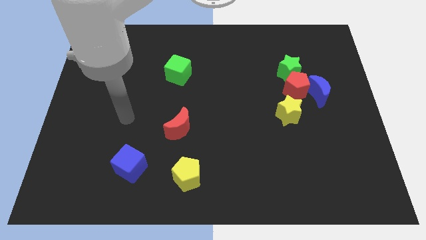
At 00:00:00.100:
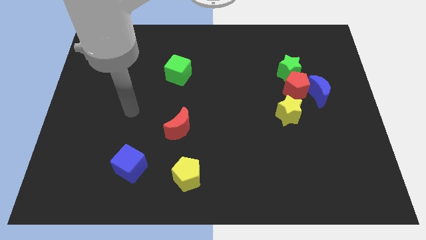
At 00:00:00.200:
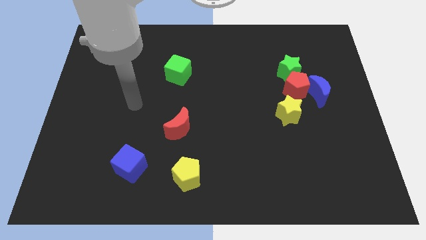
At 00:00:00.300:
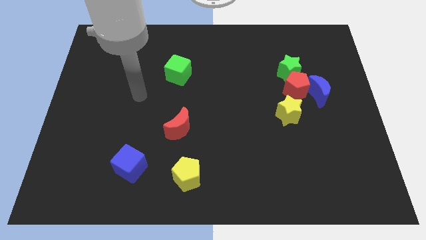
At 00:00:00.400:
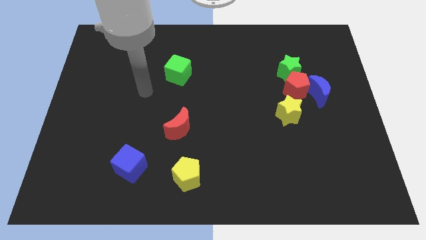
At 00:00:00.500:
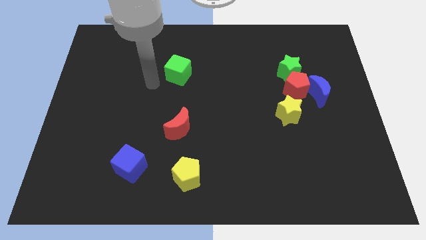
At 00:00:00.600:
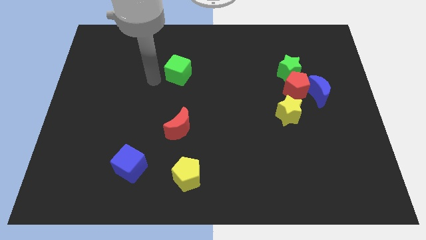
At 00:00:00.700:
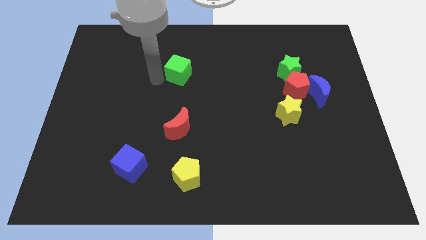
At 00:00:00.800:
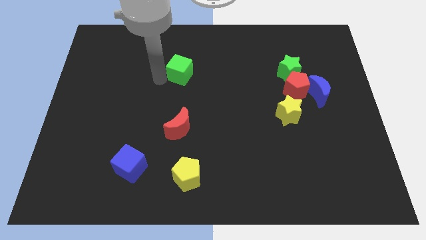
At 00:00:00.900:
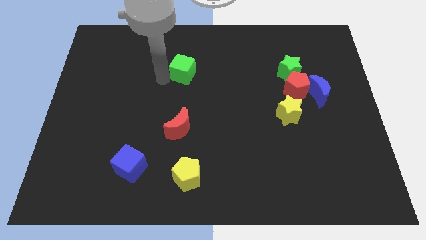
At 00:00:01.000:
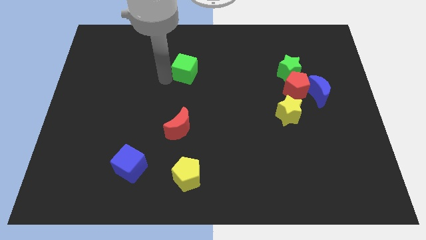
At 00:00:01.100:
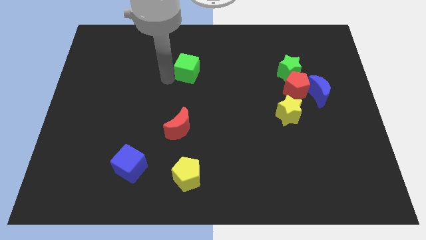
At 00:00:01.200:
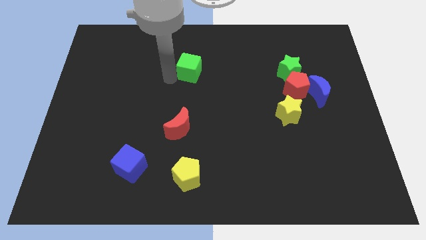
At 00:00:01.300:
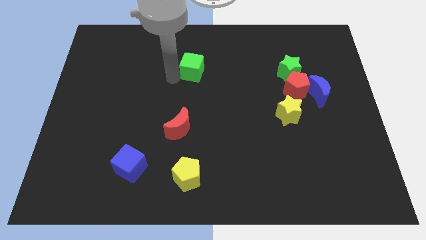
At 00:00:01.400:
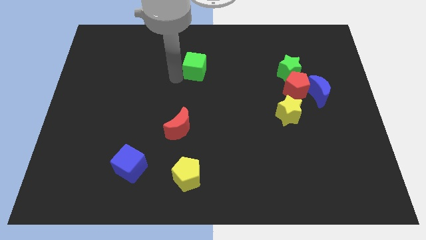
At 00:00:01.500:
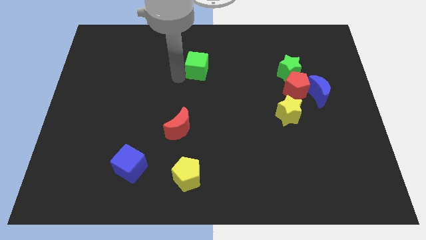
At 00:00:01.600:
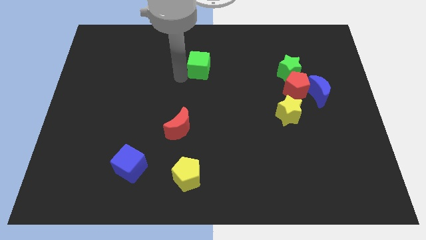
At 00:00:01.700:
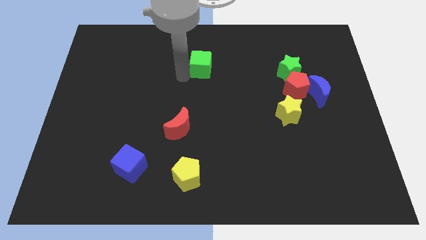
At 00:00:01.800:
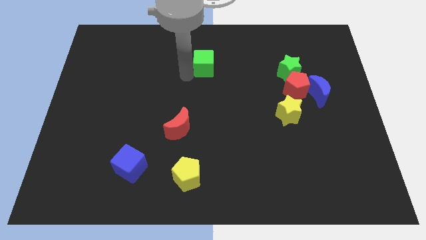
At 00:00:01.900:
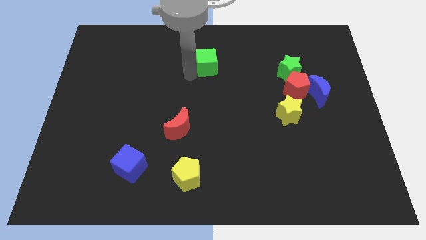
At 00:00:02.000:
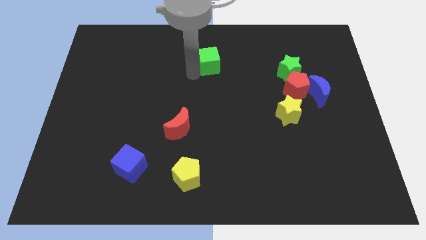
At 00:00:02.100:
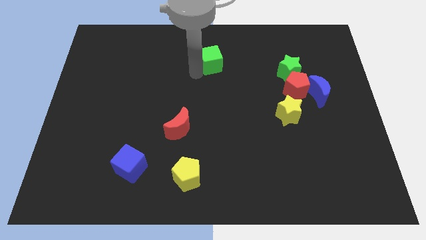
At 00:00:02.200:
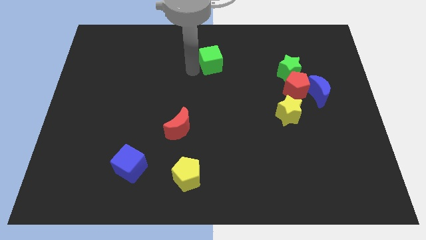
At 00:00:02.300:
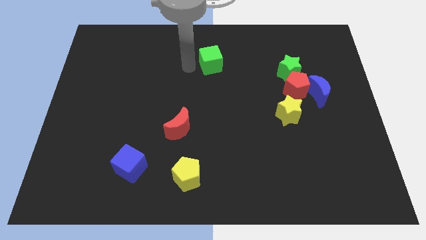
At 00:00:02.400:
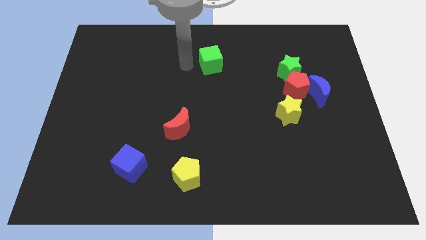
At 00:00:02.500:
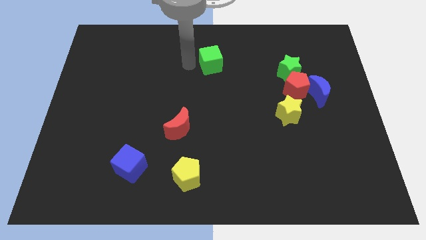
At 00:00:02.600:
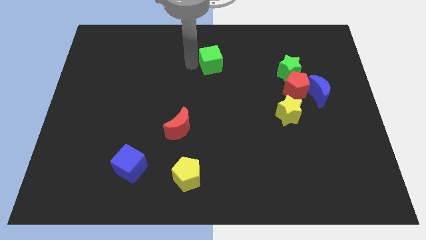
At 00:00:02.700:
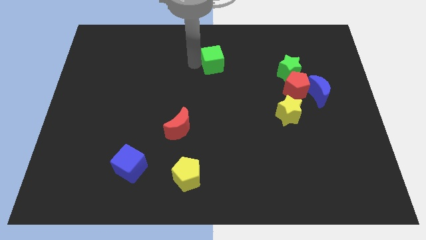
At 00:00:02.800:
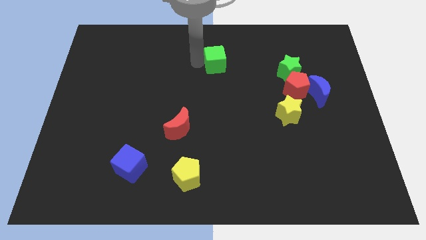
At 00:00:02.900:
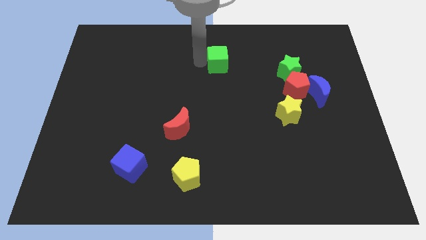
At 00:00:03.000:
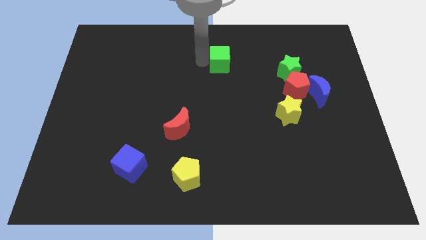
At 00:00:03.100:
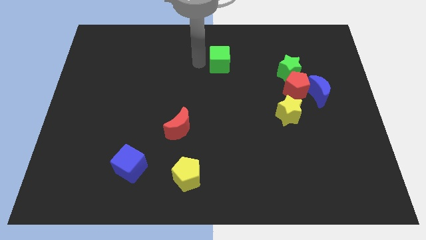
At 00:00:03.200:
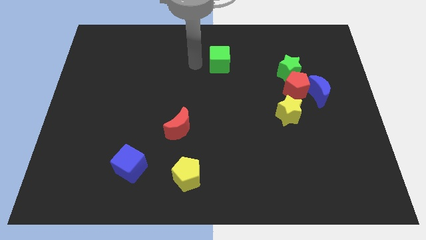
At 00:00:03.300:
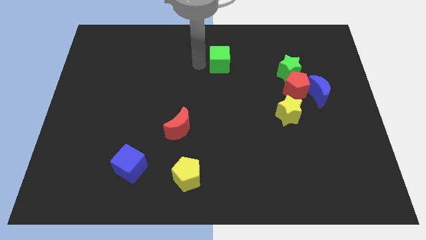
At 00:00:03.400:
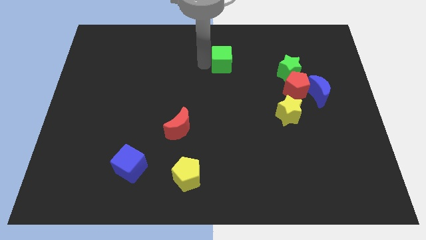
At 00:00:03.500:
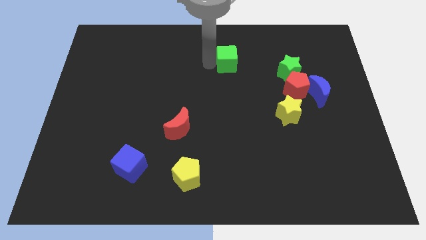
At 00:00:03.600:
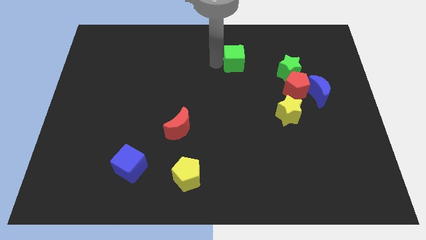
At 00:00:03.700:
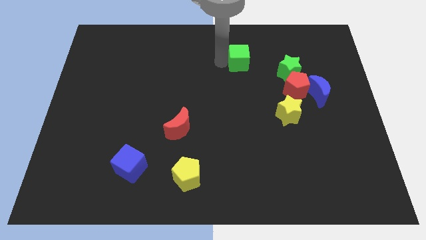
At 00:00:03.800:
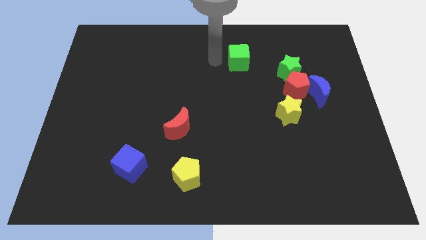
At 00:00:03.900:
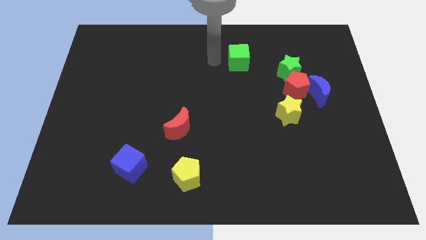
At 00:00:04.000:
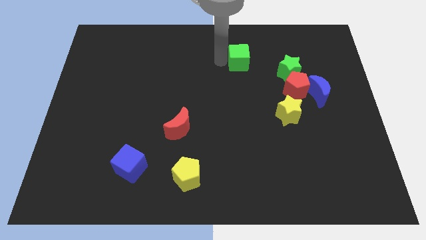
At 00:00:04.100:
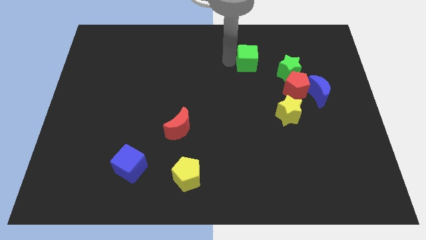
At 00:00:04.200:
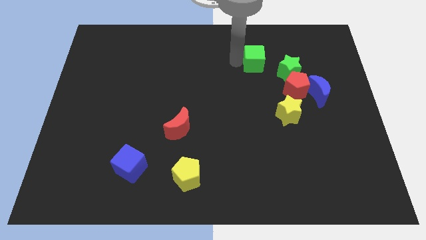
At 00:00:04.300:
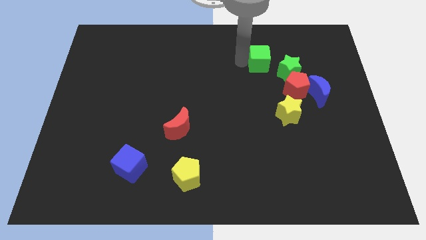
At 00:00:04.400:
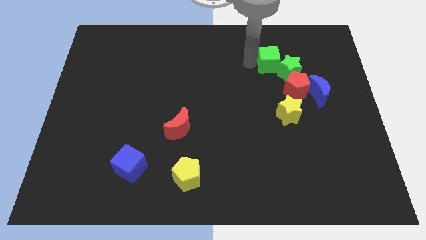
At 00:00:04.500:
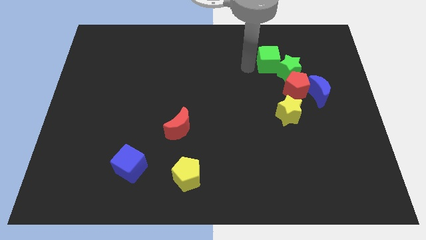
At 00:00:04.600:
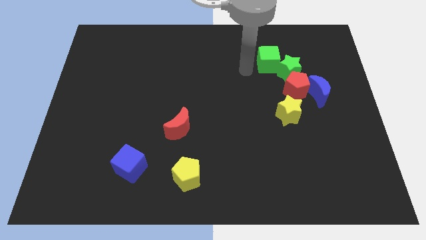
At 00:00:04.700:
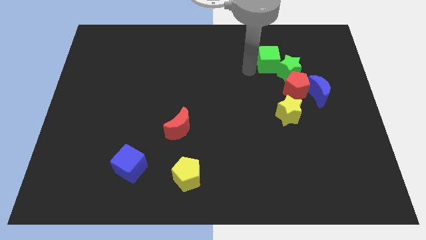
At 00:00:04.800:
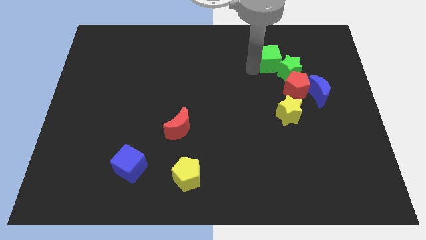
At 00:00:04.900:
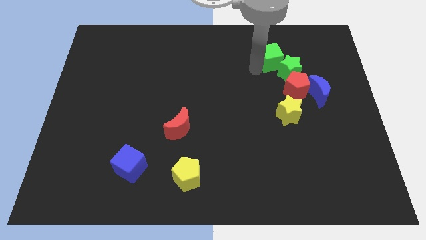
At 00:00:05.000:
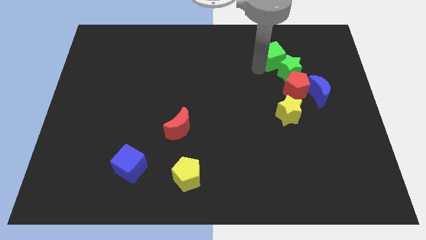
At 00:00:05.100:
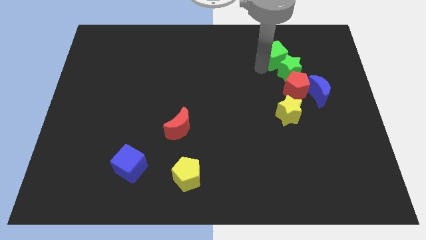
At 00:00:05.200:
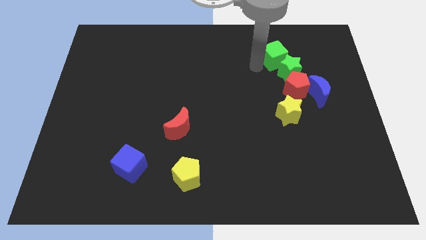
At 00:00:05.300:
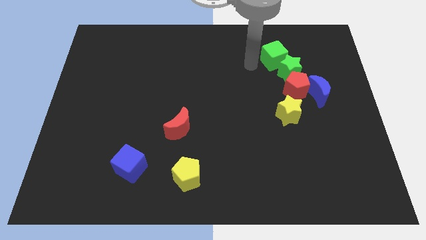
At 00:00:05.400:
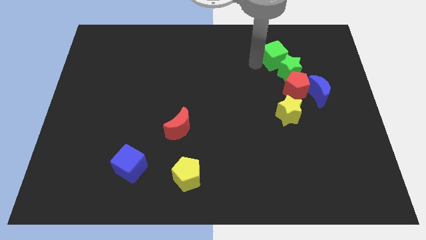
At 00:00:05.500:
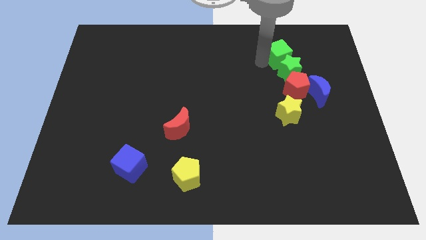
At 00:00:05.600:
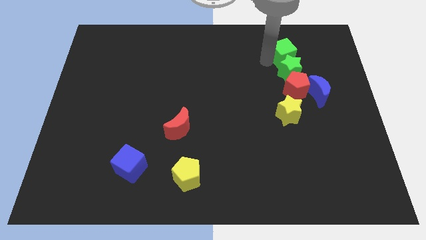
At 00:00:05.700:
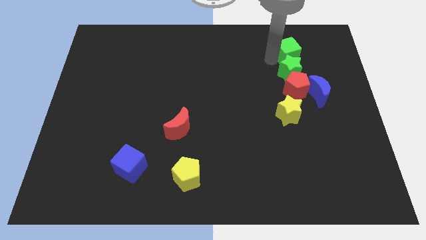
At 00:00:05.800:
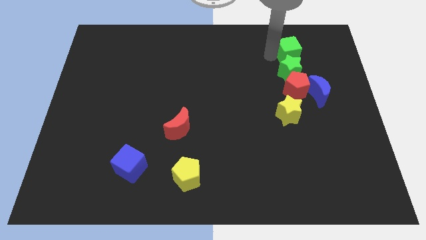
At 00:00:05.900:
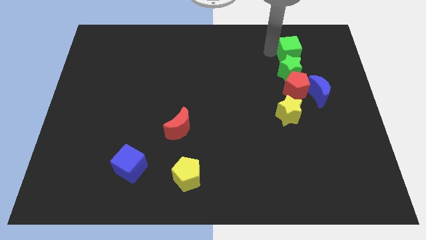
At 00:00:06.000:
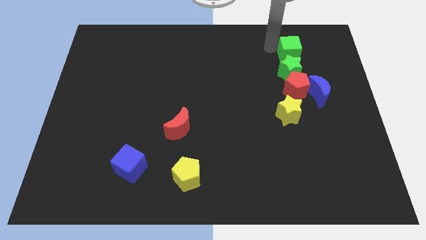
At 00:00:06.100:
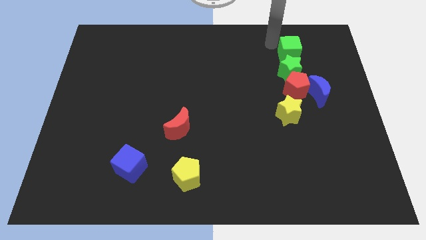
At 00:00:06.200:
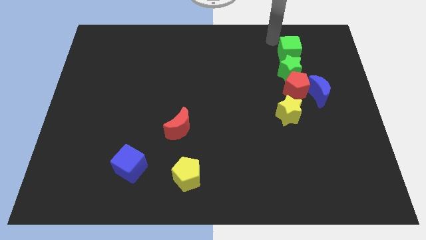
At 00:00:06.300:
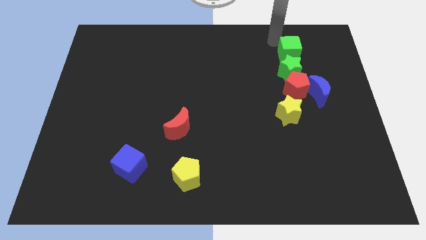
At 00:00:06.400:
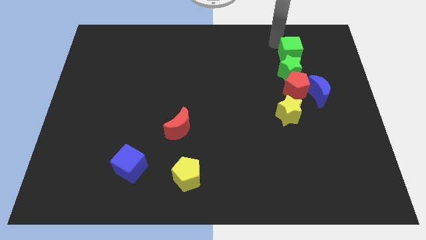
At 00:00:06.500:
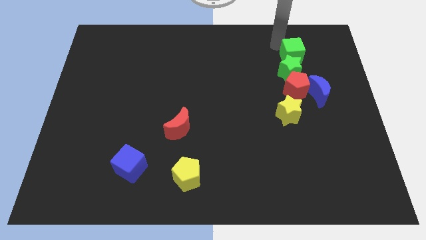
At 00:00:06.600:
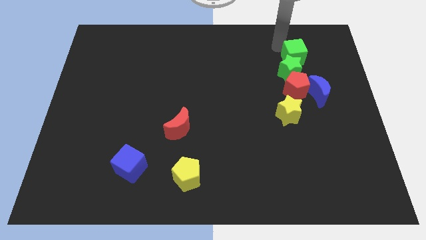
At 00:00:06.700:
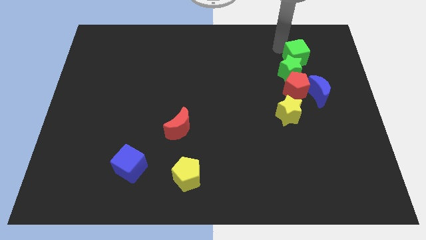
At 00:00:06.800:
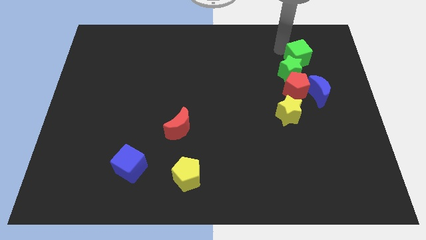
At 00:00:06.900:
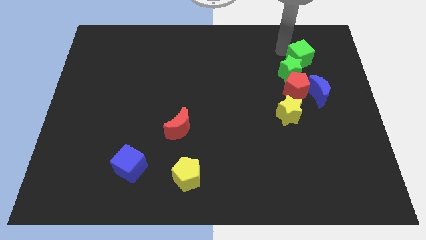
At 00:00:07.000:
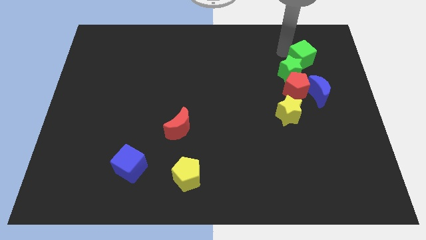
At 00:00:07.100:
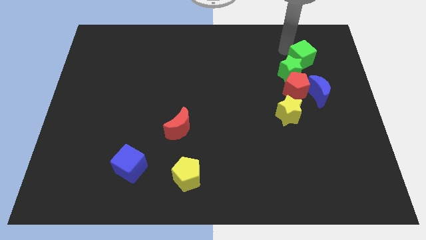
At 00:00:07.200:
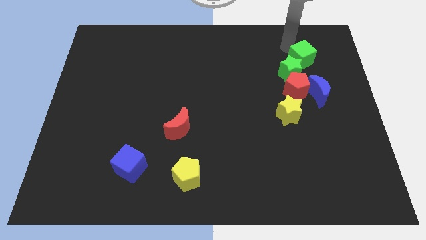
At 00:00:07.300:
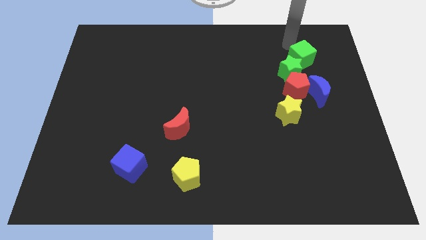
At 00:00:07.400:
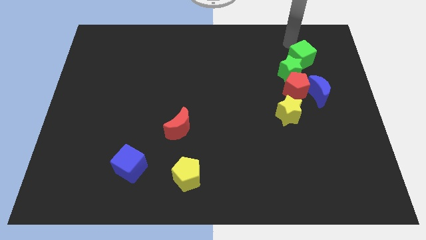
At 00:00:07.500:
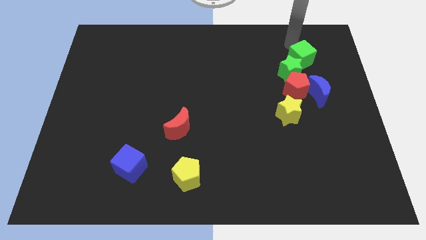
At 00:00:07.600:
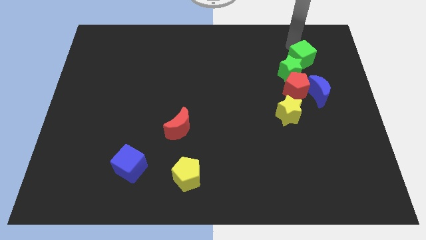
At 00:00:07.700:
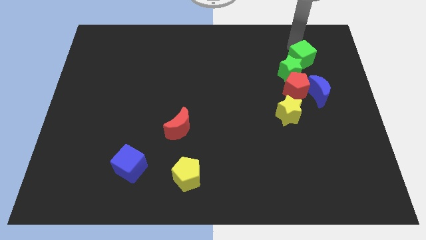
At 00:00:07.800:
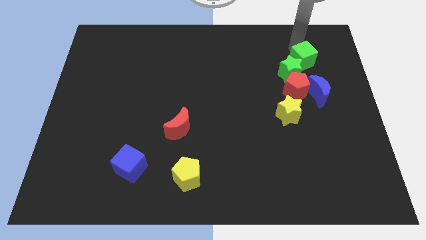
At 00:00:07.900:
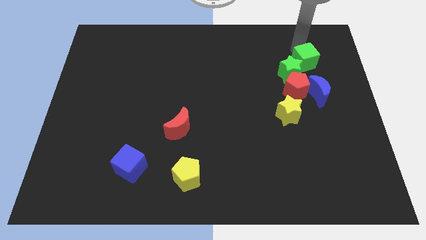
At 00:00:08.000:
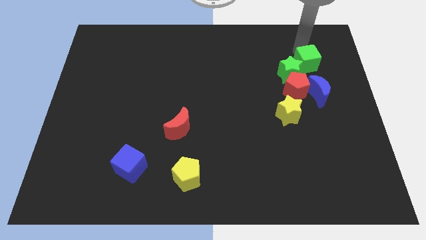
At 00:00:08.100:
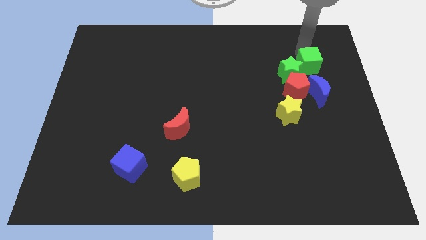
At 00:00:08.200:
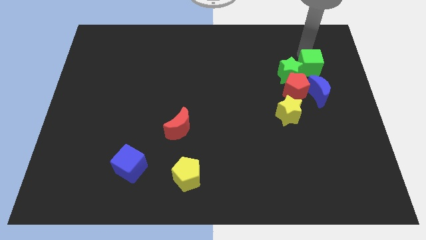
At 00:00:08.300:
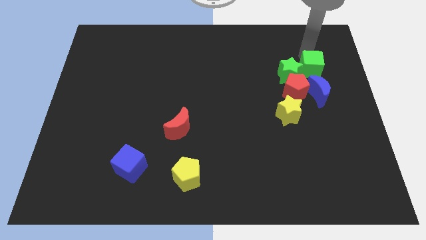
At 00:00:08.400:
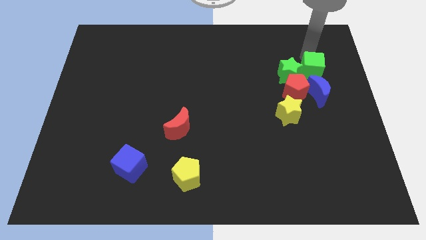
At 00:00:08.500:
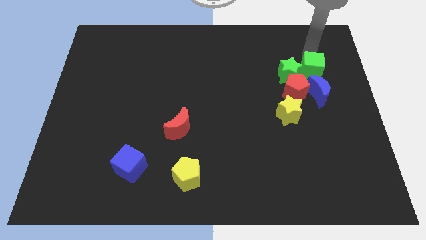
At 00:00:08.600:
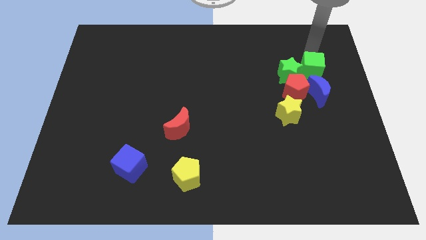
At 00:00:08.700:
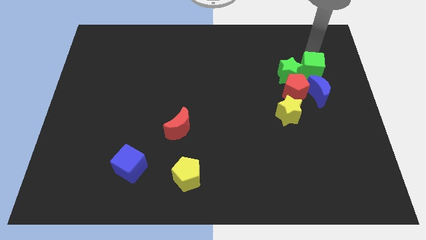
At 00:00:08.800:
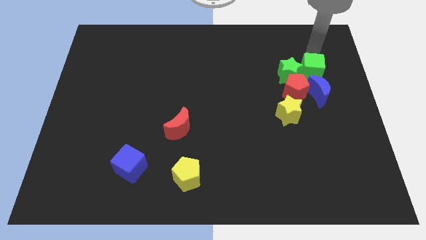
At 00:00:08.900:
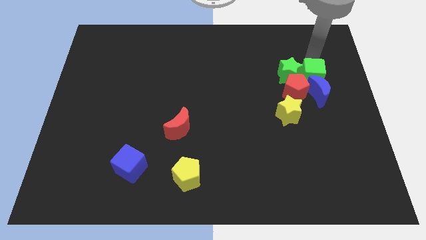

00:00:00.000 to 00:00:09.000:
slide the green cube towards the blue moon
